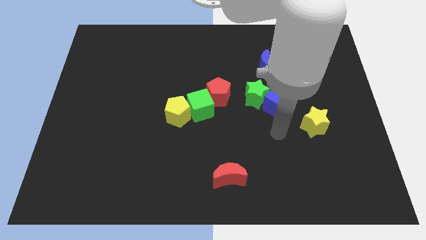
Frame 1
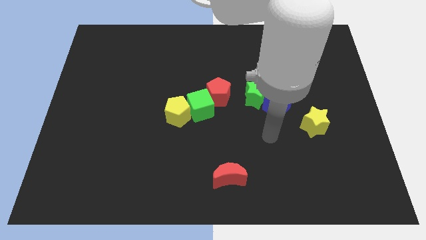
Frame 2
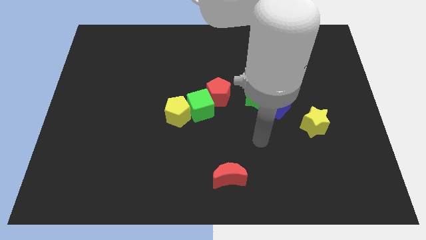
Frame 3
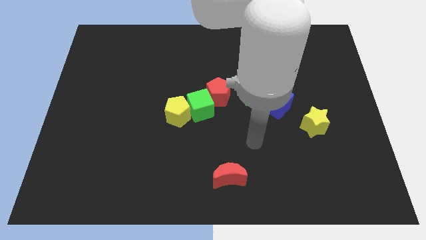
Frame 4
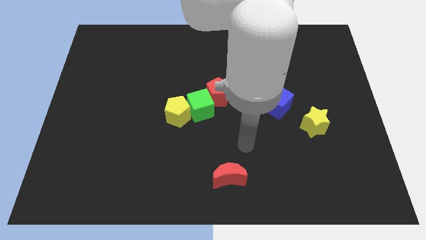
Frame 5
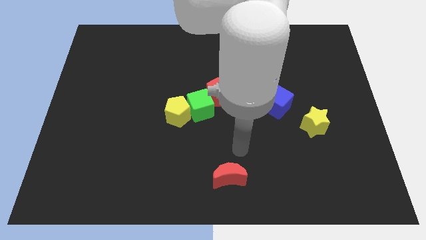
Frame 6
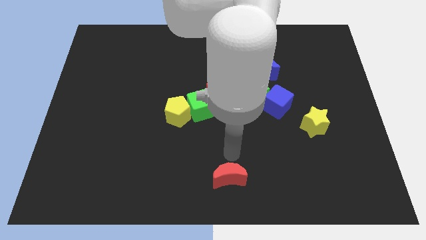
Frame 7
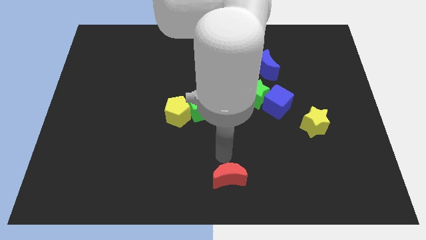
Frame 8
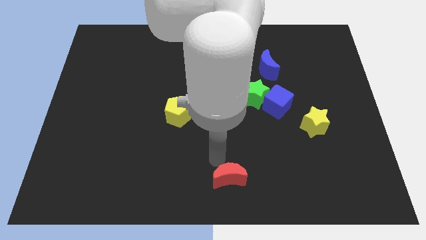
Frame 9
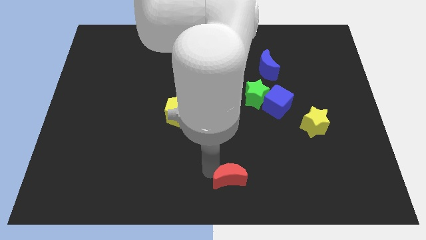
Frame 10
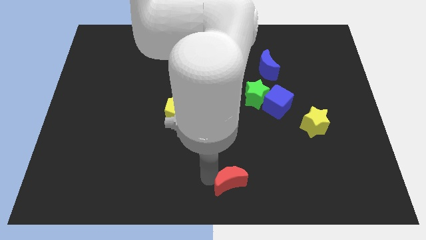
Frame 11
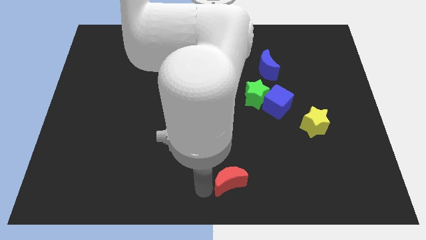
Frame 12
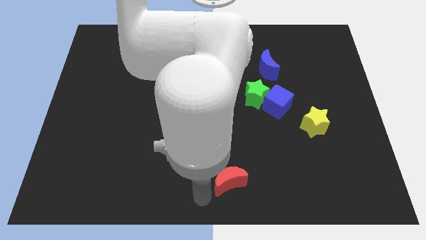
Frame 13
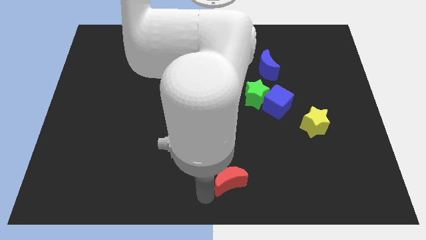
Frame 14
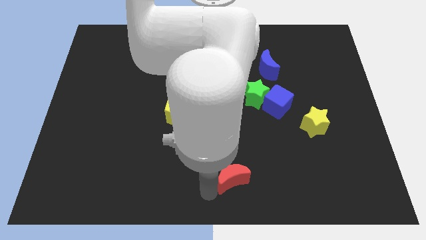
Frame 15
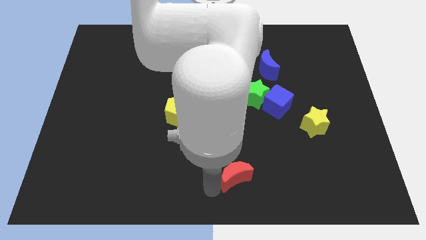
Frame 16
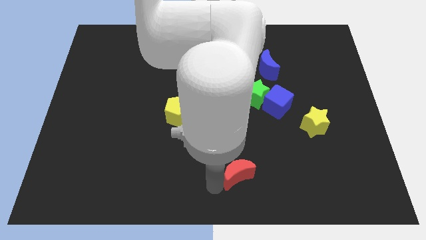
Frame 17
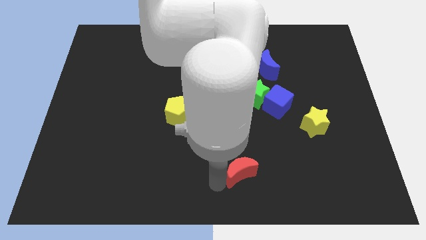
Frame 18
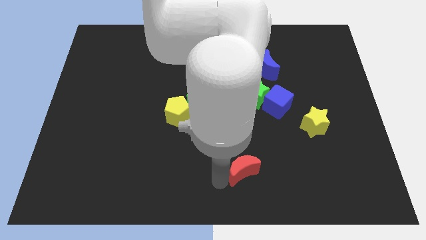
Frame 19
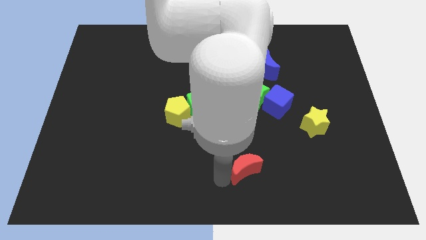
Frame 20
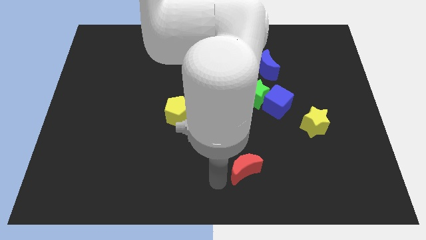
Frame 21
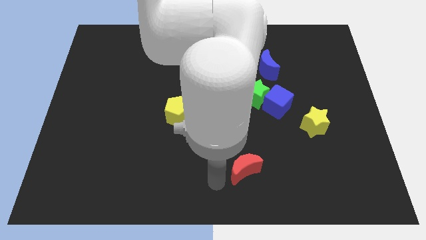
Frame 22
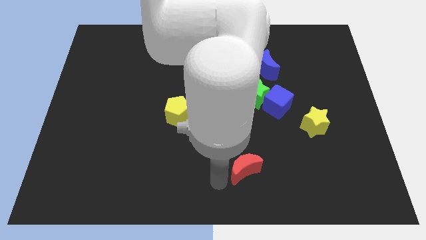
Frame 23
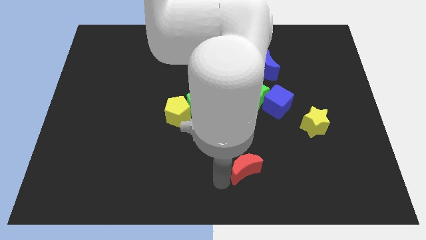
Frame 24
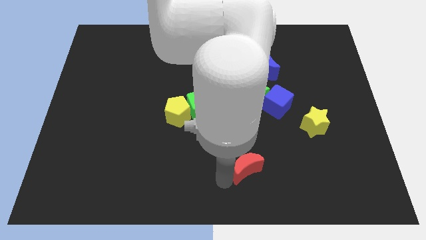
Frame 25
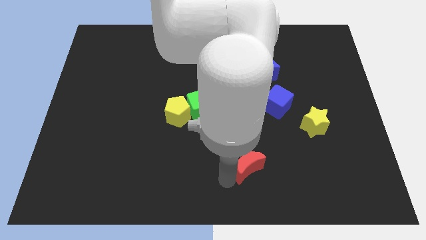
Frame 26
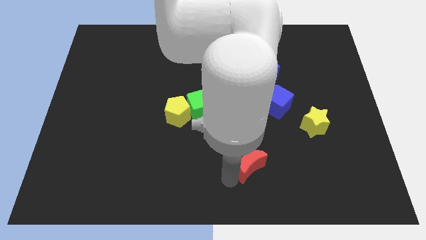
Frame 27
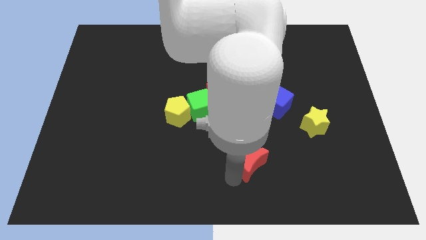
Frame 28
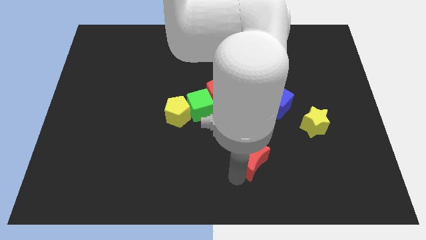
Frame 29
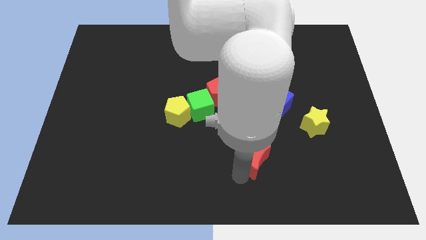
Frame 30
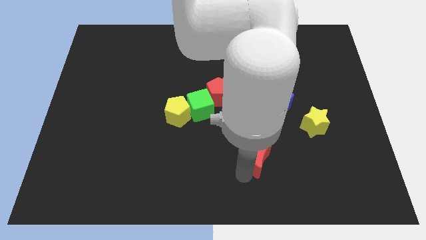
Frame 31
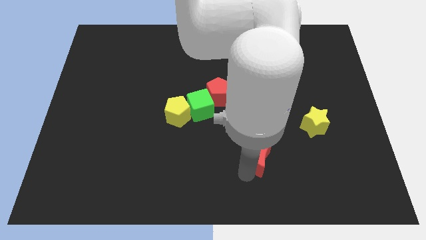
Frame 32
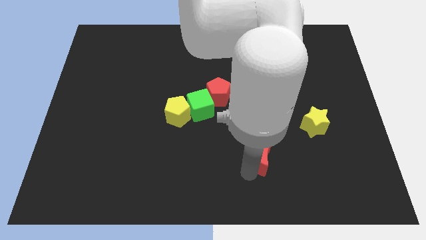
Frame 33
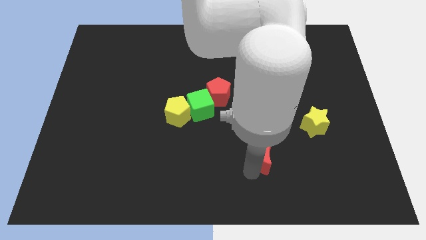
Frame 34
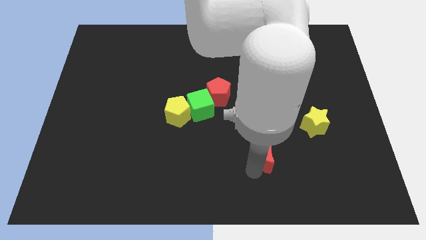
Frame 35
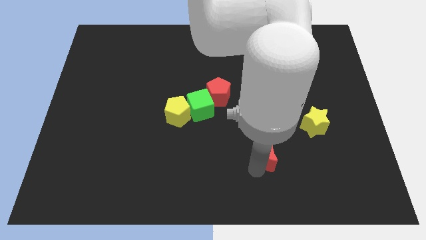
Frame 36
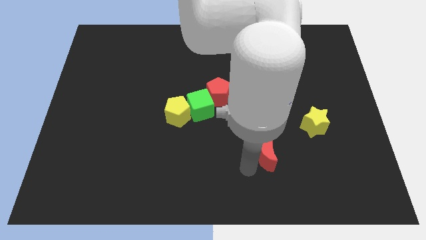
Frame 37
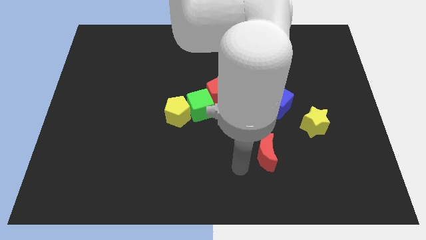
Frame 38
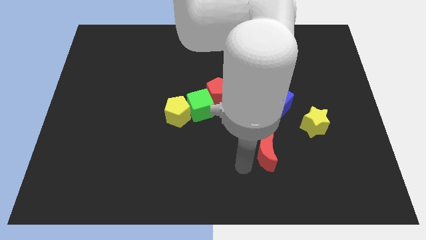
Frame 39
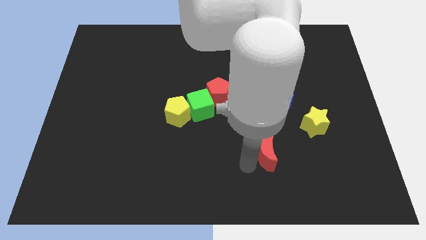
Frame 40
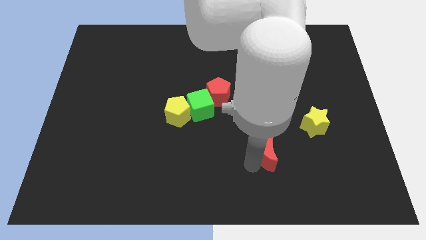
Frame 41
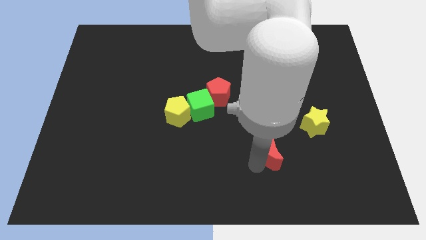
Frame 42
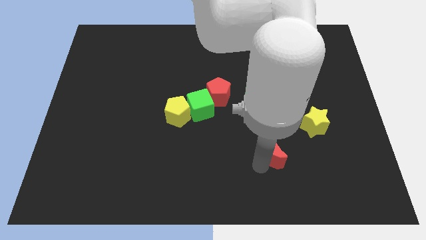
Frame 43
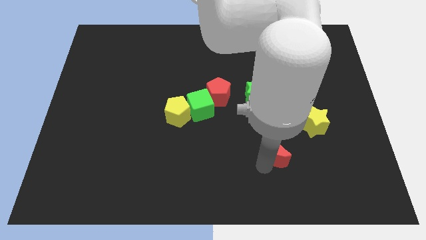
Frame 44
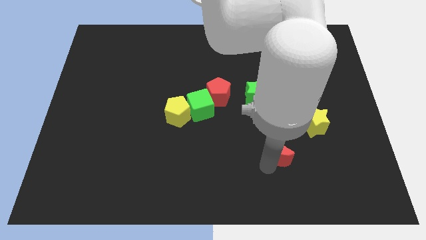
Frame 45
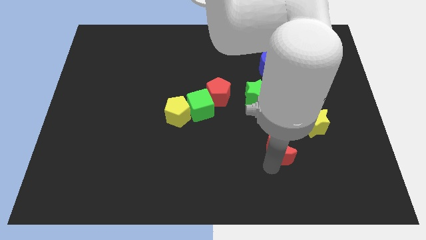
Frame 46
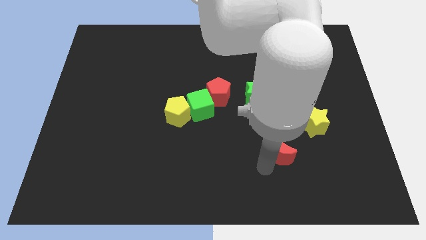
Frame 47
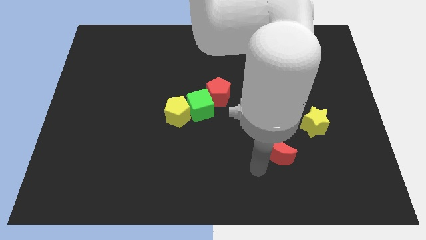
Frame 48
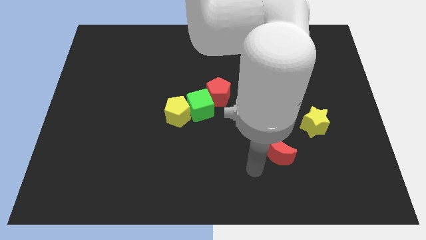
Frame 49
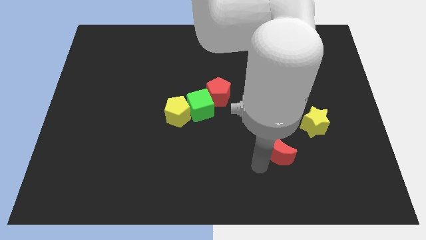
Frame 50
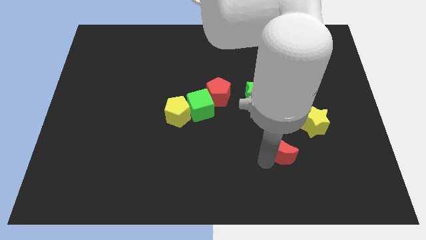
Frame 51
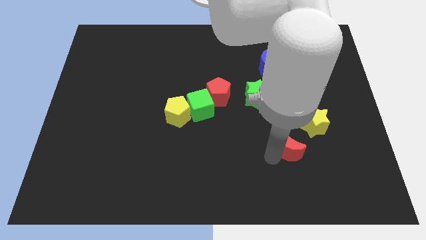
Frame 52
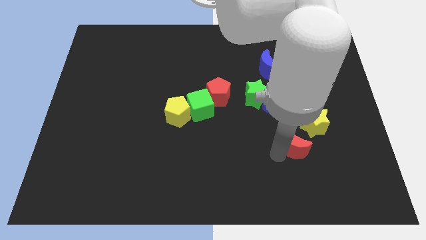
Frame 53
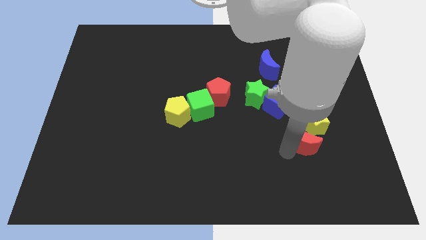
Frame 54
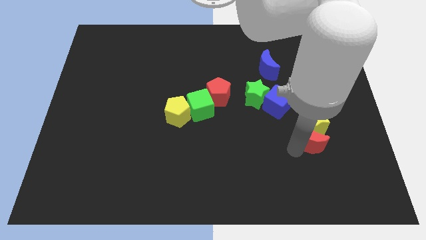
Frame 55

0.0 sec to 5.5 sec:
move the red moon towards the yellow star

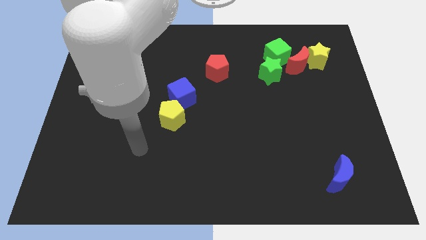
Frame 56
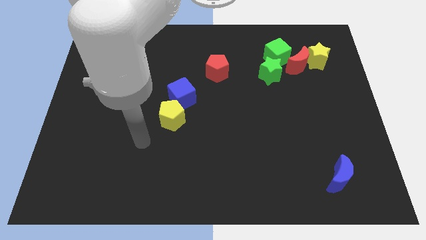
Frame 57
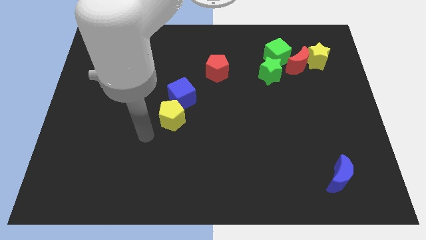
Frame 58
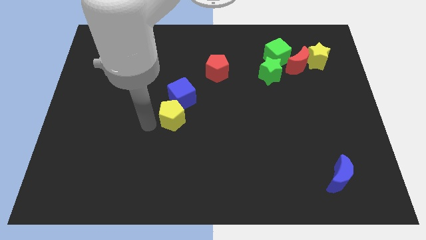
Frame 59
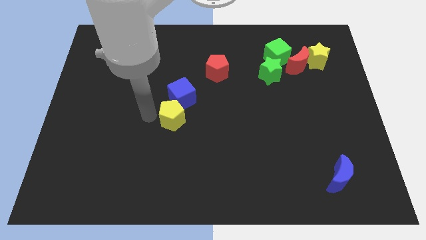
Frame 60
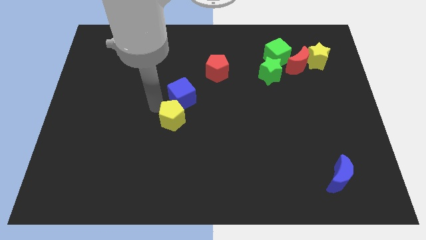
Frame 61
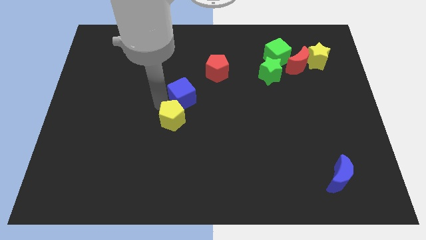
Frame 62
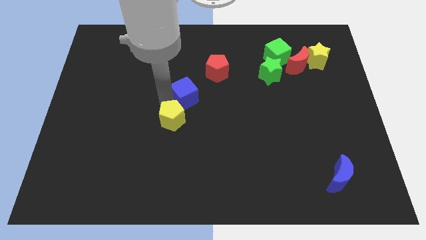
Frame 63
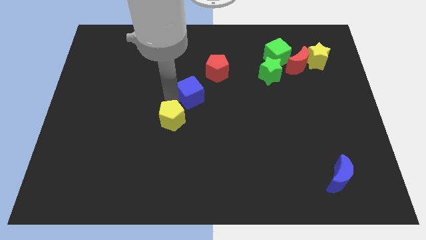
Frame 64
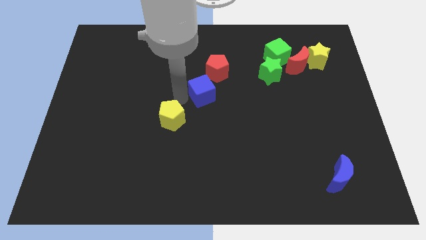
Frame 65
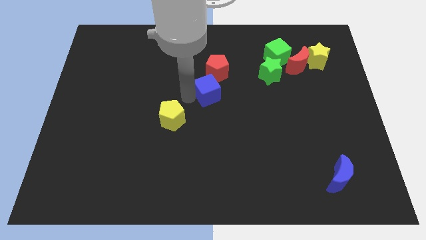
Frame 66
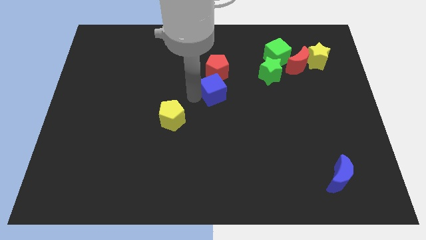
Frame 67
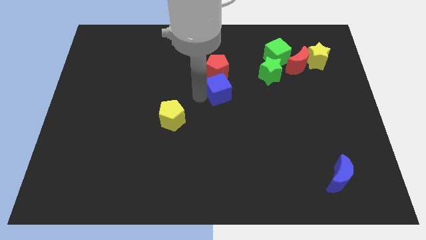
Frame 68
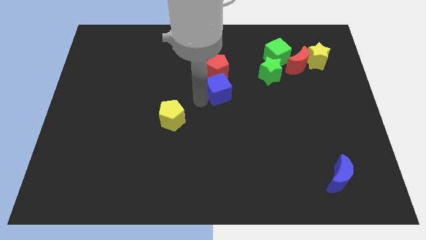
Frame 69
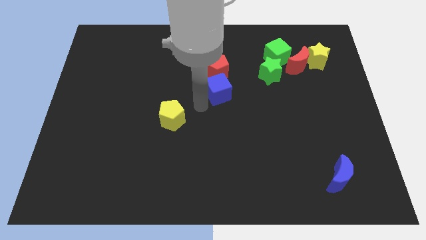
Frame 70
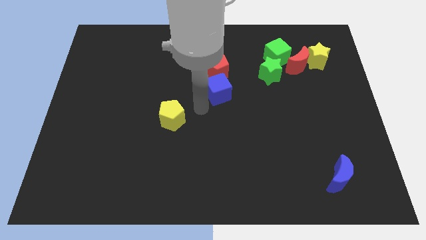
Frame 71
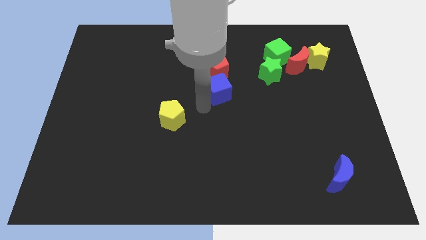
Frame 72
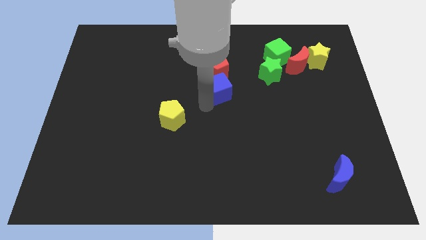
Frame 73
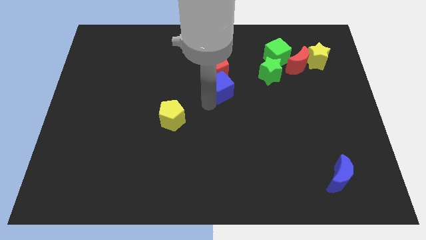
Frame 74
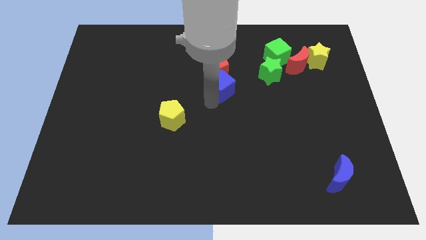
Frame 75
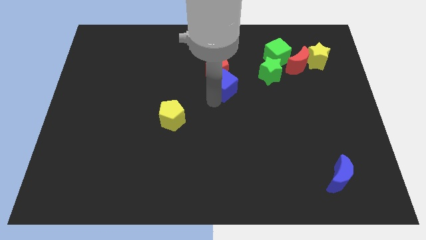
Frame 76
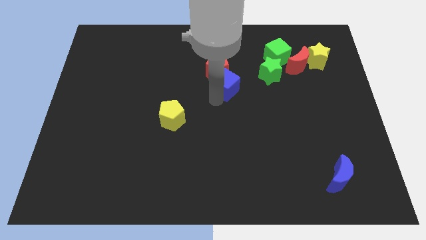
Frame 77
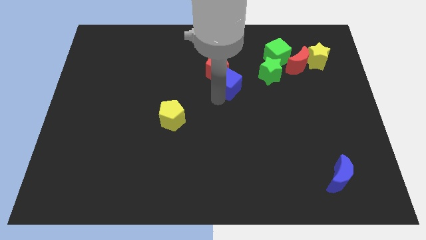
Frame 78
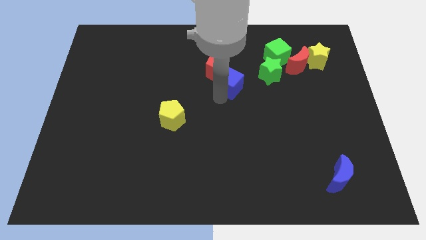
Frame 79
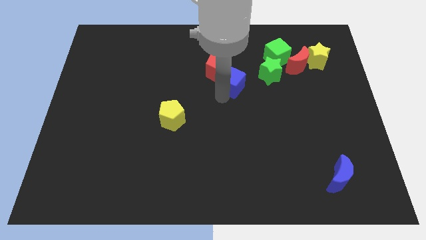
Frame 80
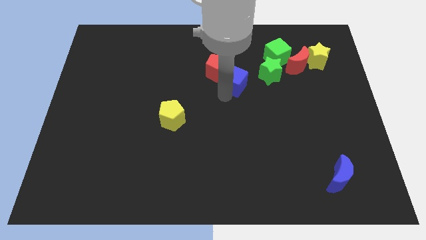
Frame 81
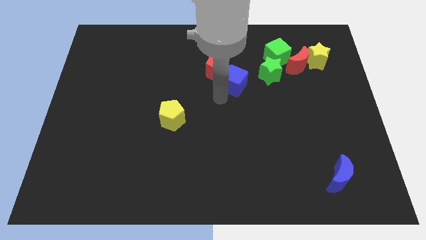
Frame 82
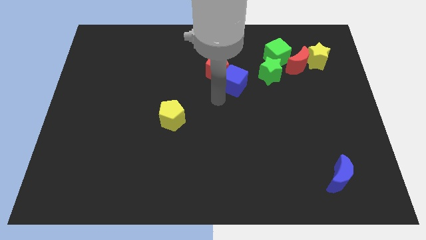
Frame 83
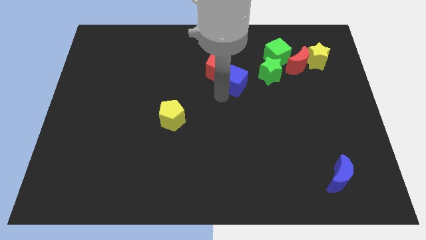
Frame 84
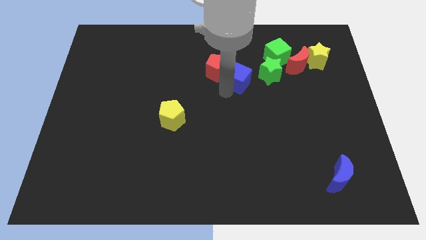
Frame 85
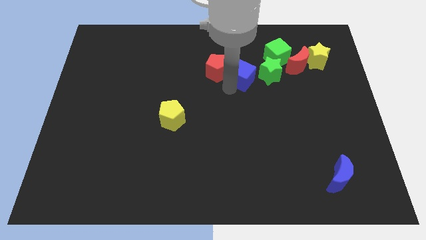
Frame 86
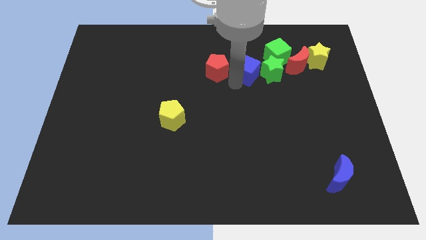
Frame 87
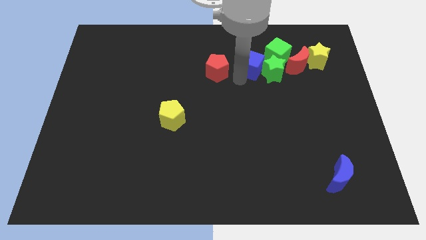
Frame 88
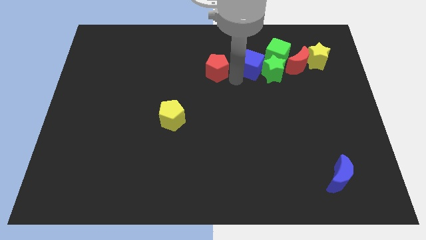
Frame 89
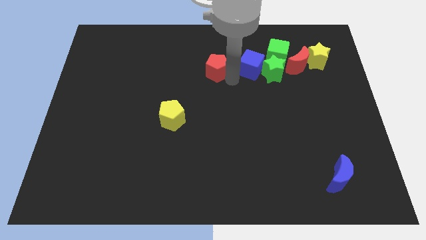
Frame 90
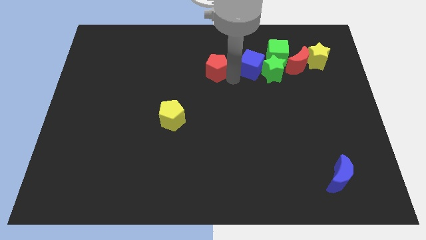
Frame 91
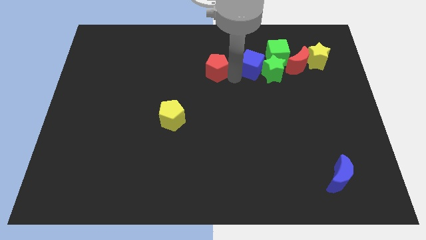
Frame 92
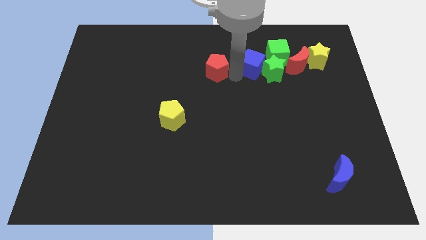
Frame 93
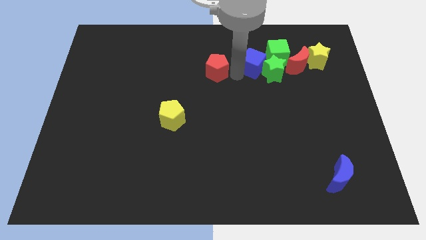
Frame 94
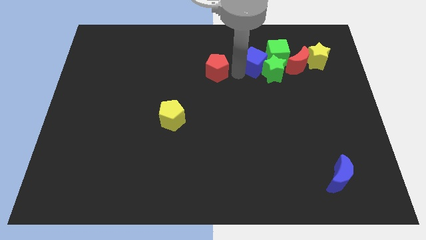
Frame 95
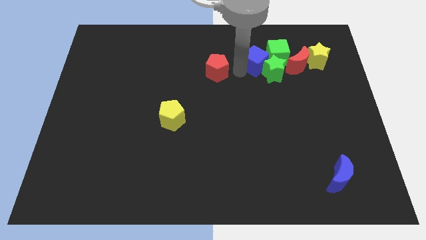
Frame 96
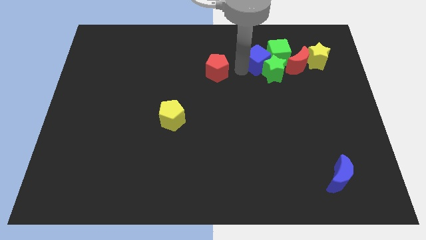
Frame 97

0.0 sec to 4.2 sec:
put the blue cube next to the green cube
